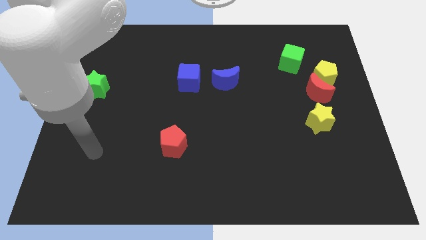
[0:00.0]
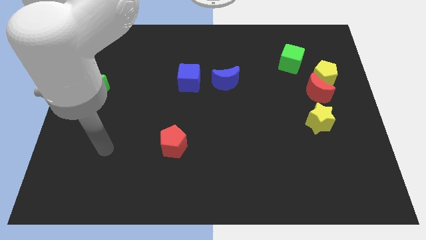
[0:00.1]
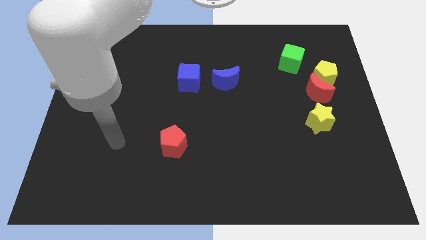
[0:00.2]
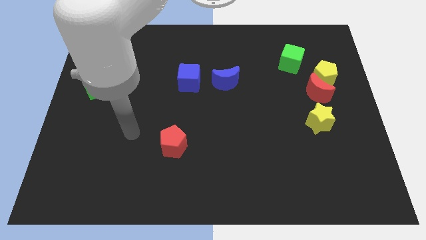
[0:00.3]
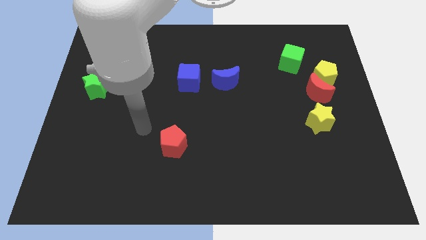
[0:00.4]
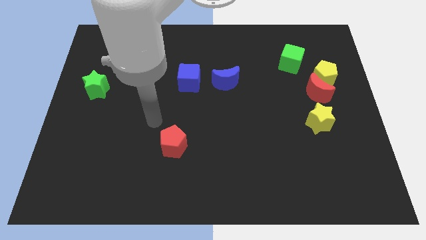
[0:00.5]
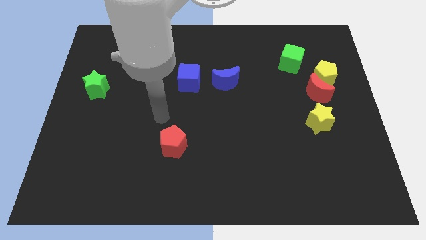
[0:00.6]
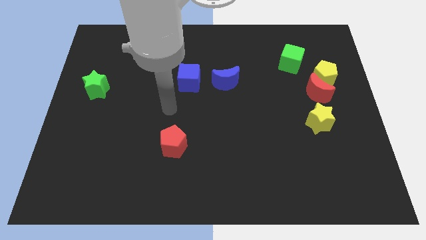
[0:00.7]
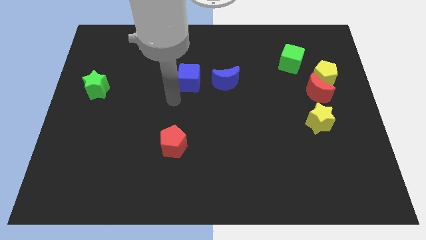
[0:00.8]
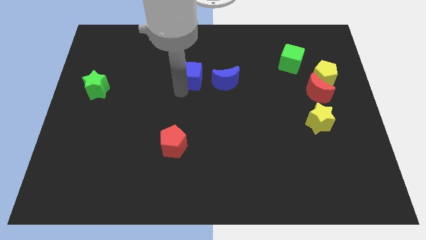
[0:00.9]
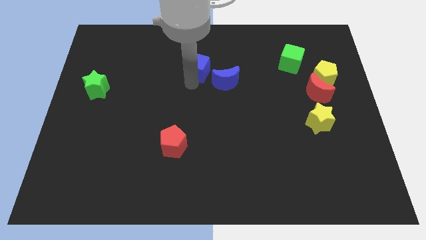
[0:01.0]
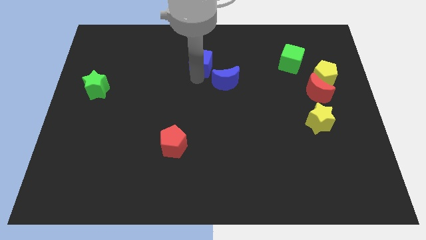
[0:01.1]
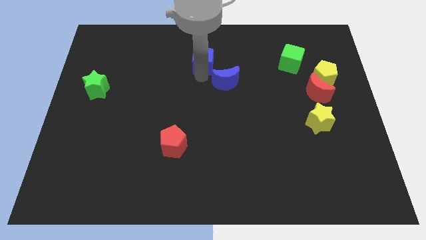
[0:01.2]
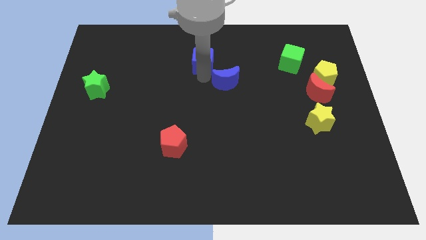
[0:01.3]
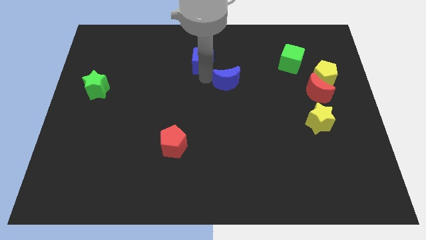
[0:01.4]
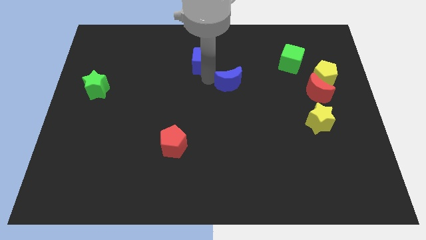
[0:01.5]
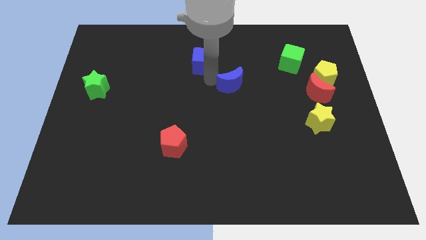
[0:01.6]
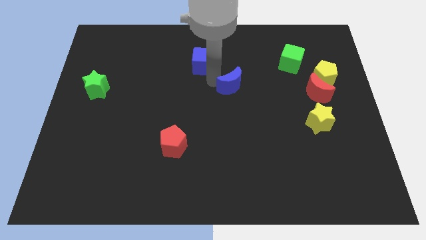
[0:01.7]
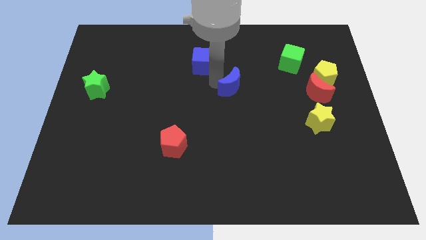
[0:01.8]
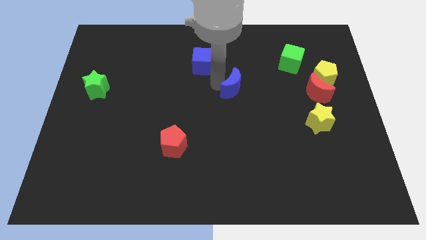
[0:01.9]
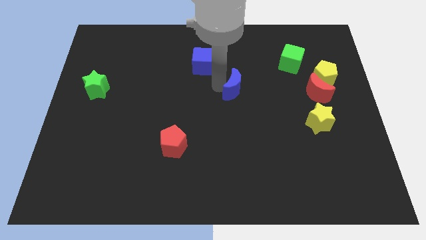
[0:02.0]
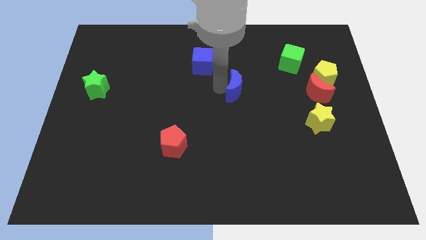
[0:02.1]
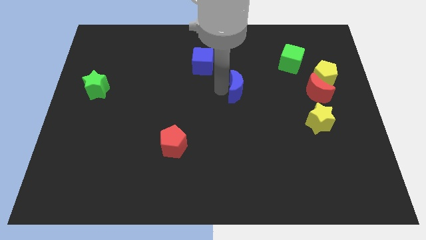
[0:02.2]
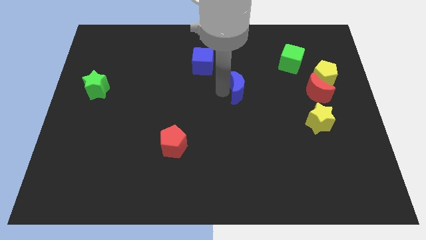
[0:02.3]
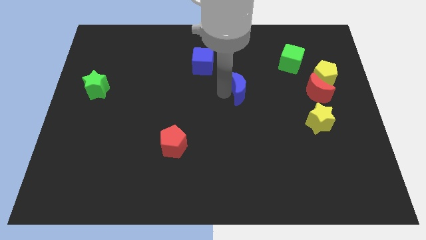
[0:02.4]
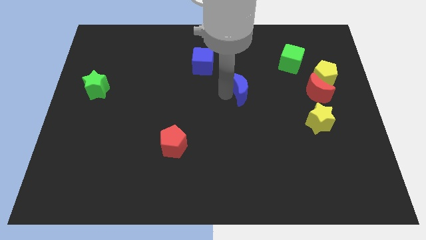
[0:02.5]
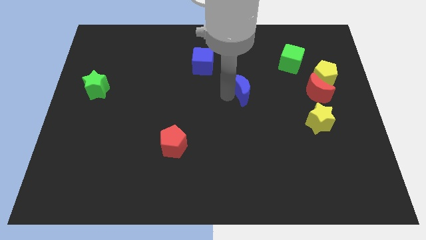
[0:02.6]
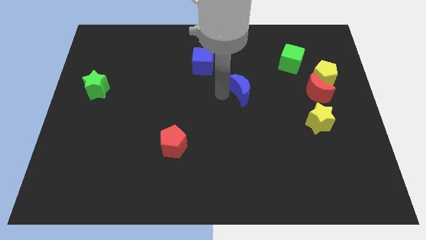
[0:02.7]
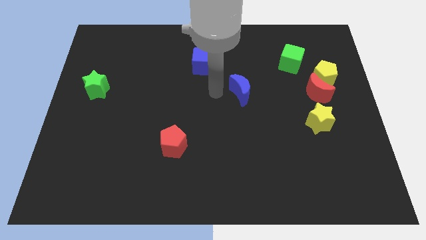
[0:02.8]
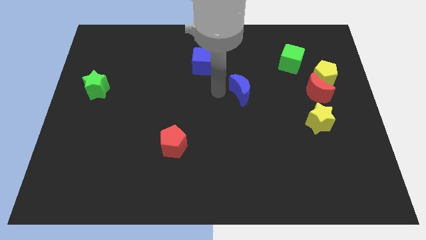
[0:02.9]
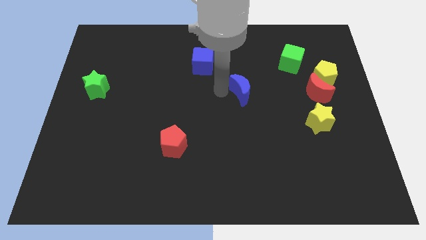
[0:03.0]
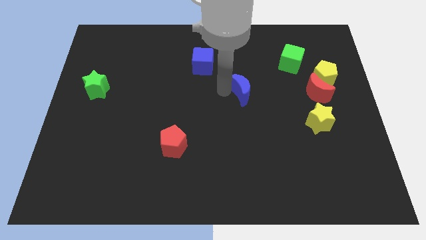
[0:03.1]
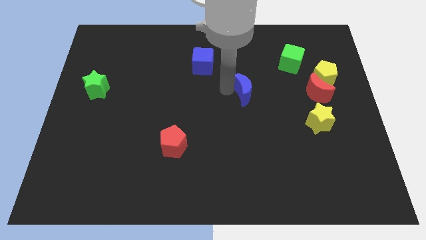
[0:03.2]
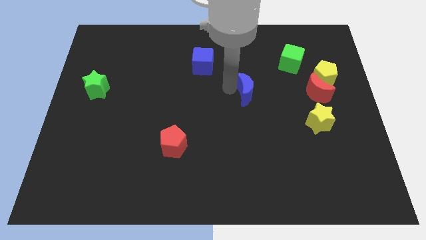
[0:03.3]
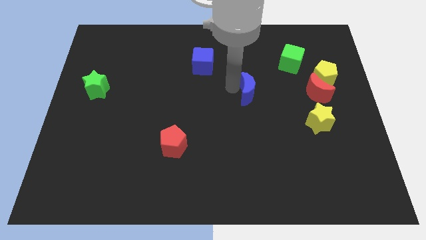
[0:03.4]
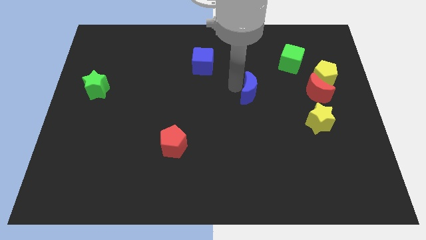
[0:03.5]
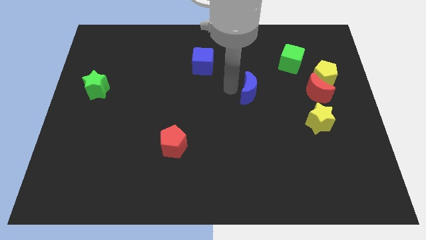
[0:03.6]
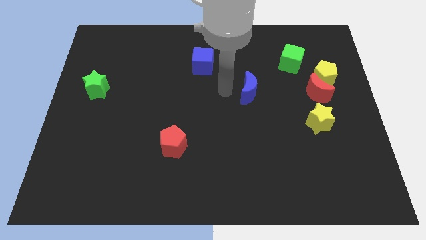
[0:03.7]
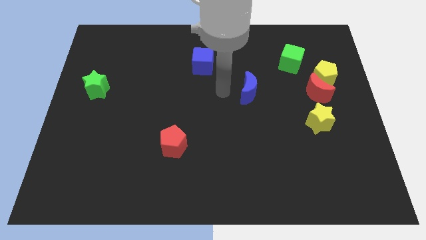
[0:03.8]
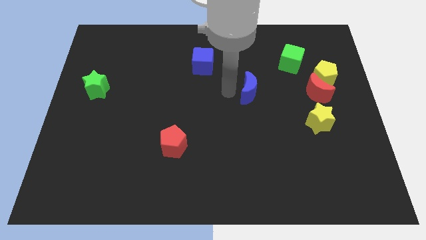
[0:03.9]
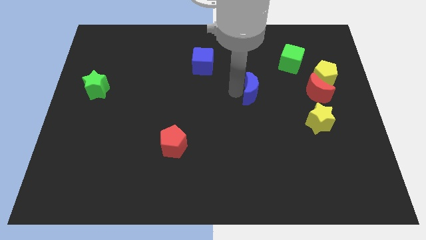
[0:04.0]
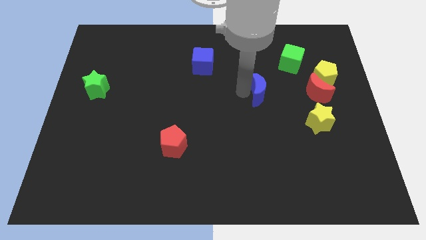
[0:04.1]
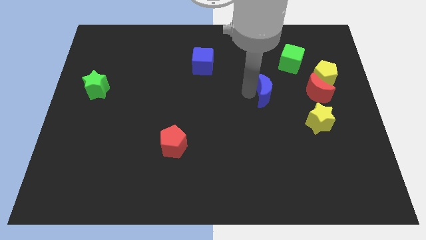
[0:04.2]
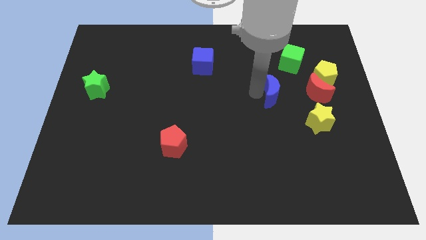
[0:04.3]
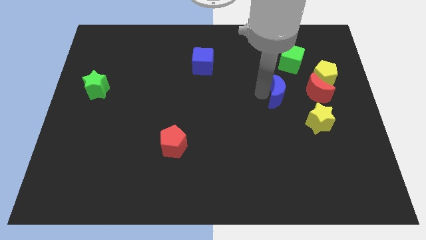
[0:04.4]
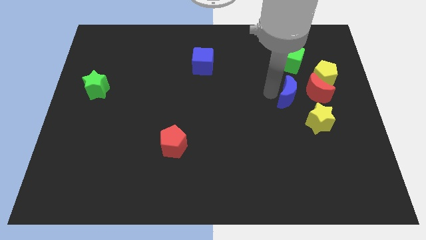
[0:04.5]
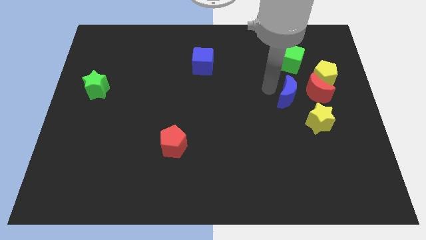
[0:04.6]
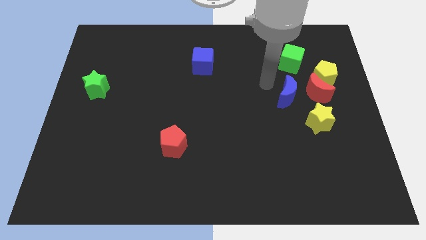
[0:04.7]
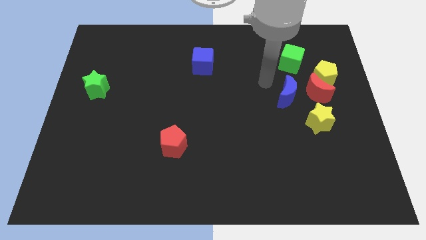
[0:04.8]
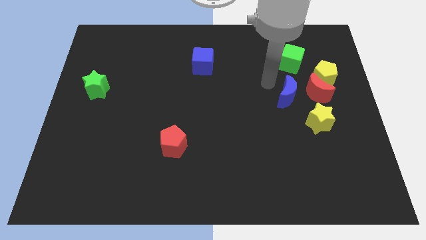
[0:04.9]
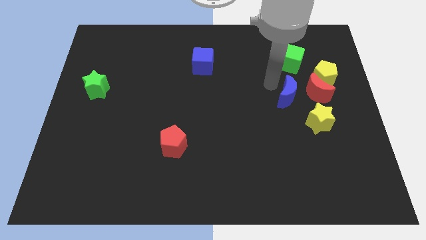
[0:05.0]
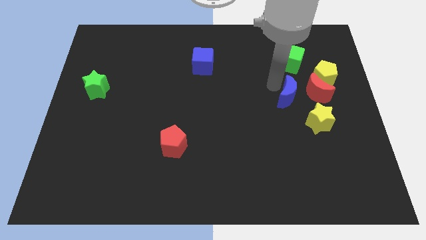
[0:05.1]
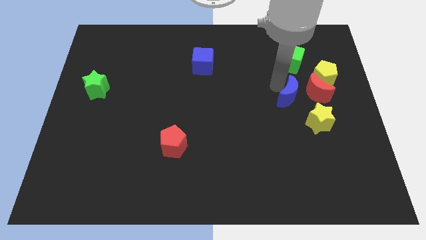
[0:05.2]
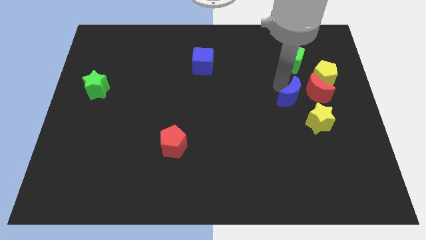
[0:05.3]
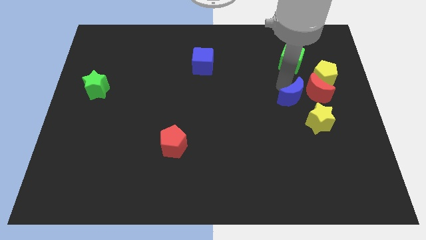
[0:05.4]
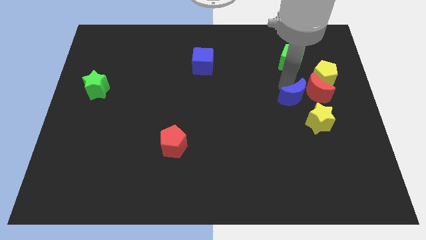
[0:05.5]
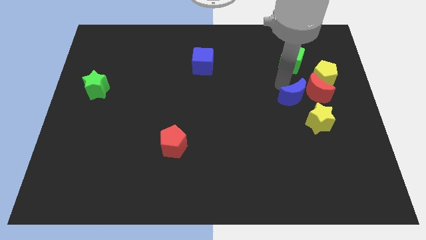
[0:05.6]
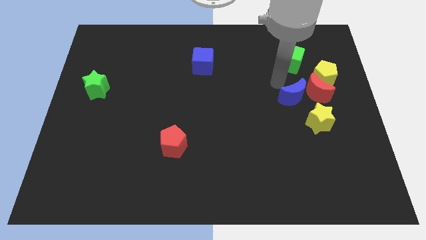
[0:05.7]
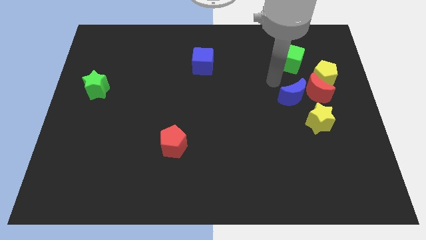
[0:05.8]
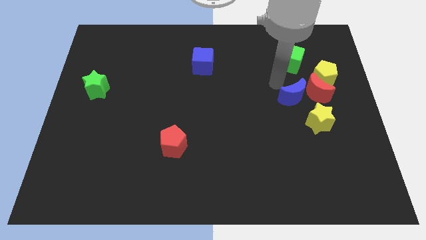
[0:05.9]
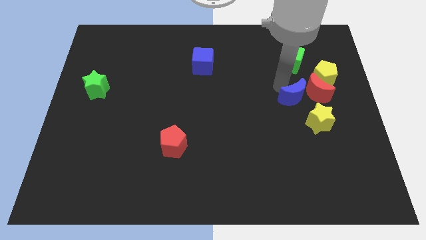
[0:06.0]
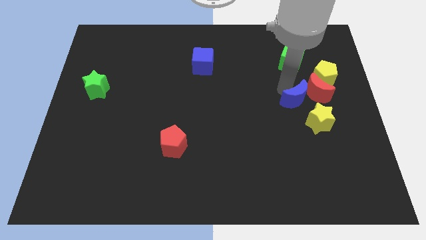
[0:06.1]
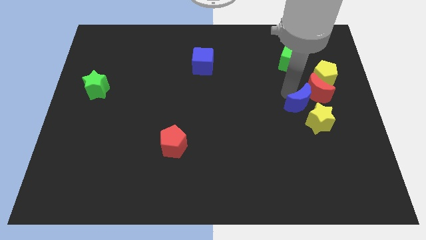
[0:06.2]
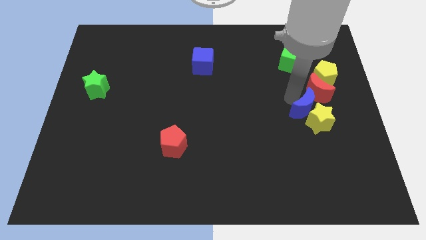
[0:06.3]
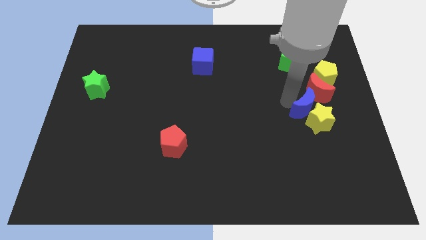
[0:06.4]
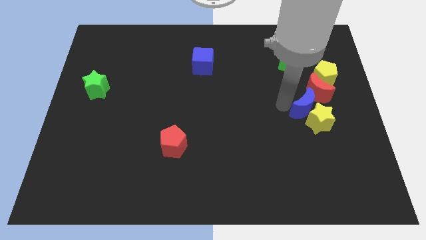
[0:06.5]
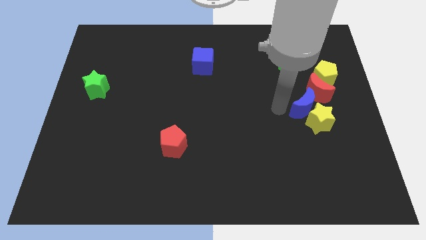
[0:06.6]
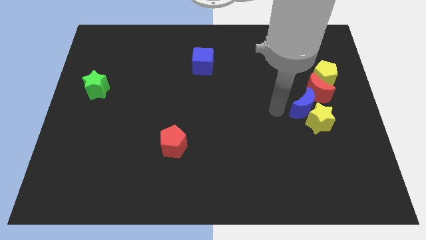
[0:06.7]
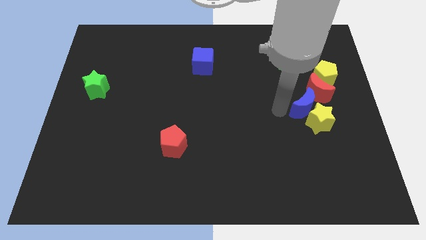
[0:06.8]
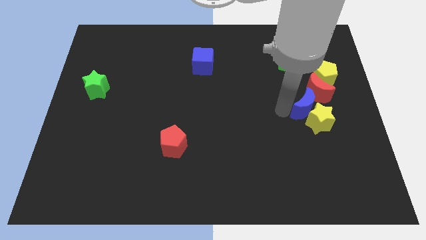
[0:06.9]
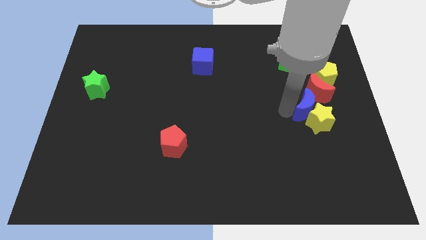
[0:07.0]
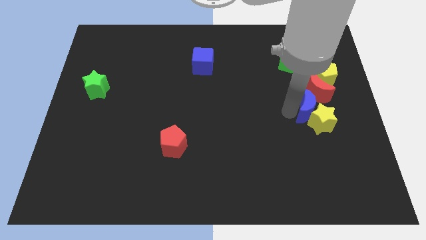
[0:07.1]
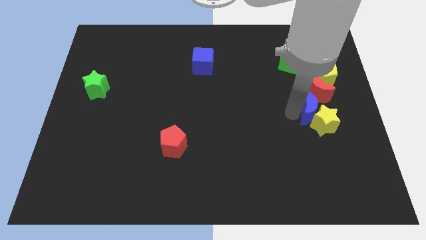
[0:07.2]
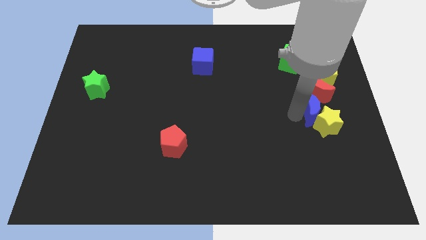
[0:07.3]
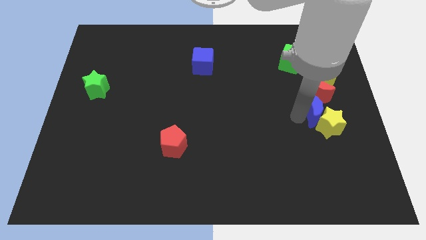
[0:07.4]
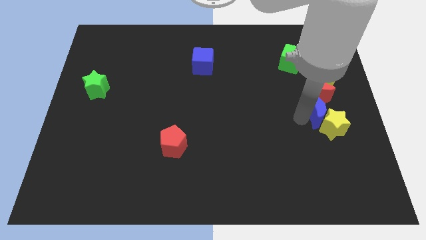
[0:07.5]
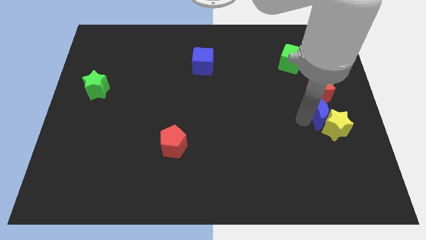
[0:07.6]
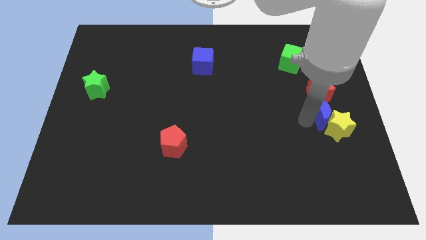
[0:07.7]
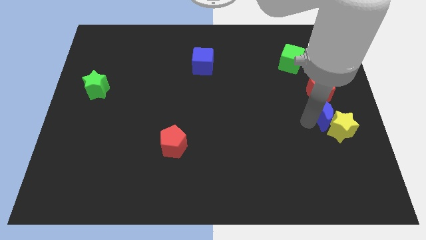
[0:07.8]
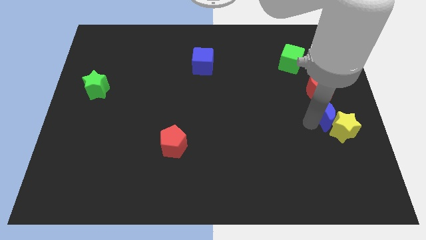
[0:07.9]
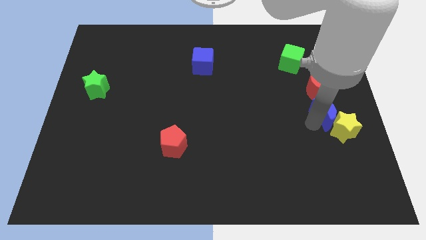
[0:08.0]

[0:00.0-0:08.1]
put the blue moon to the center right

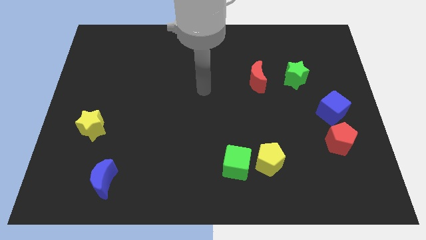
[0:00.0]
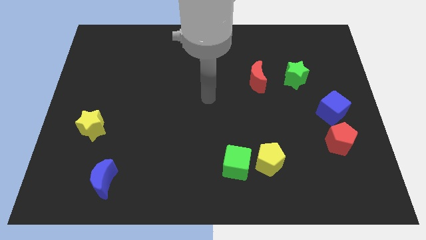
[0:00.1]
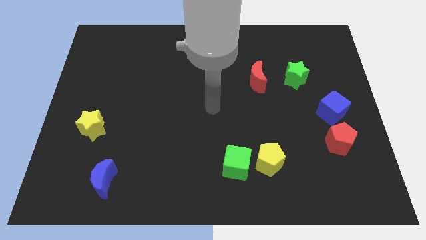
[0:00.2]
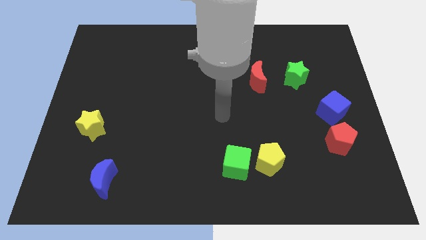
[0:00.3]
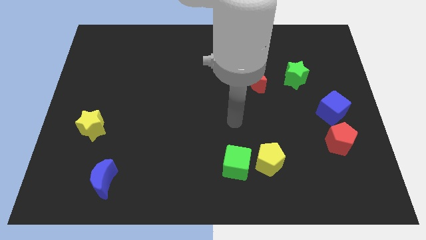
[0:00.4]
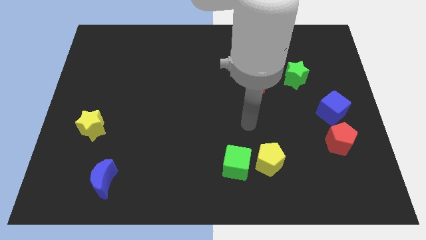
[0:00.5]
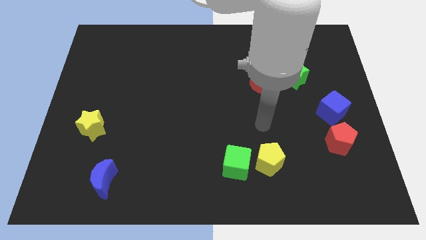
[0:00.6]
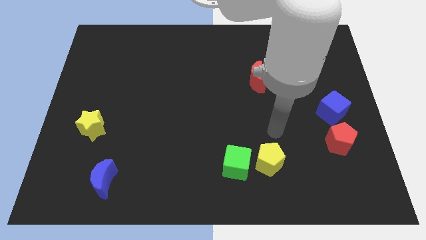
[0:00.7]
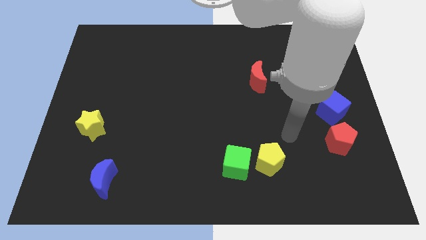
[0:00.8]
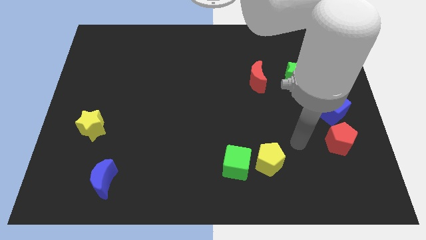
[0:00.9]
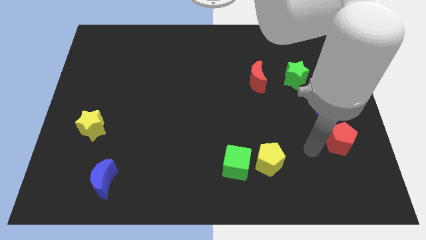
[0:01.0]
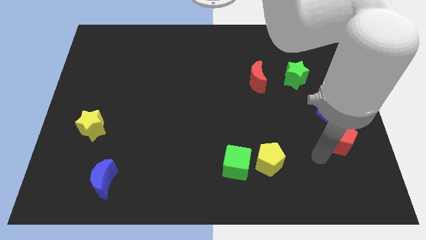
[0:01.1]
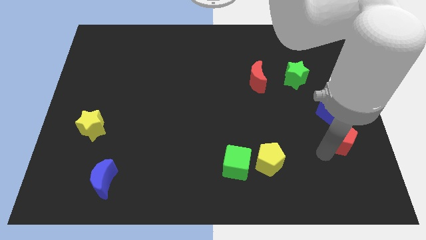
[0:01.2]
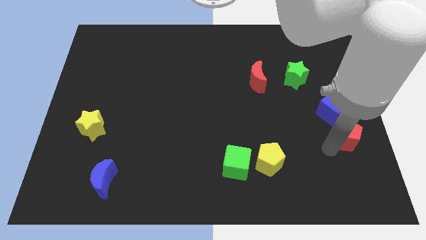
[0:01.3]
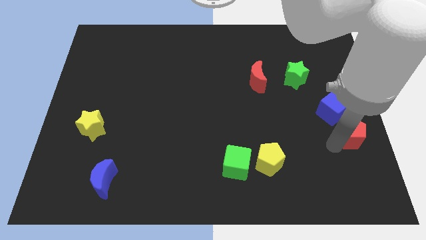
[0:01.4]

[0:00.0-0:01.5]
slide the red pentagon to the right side
